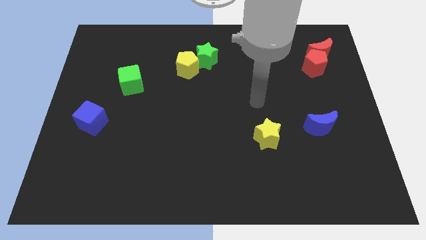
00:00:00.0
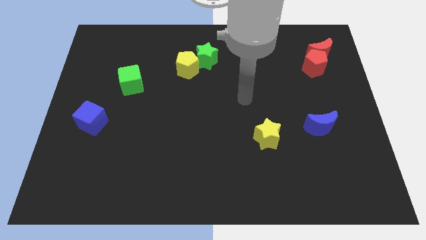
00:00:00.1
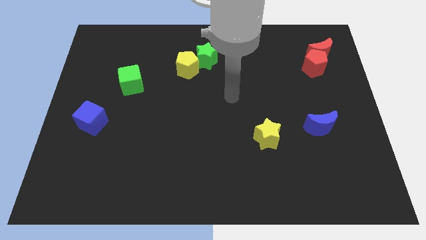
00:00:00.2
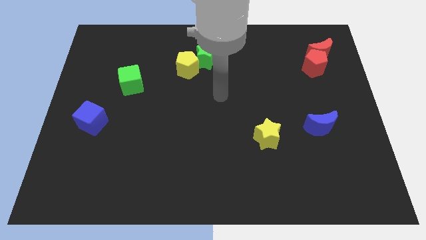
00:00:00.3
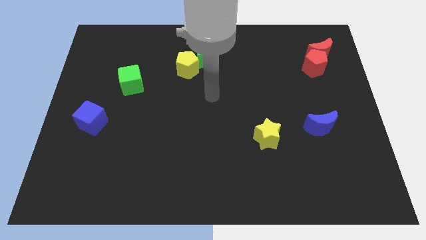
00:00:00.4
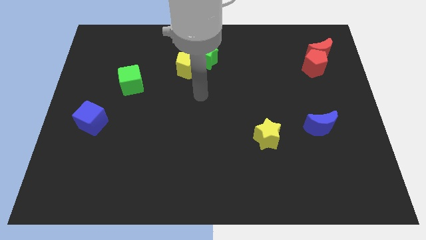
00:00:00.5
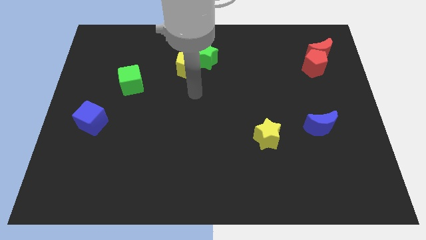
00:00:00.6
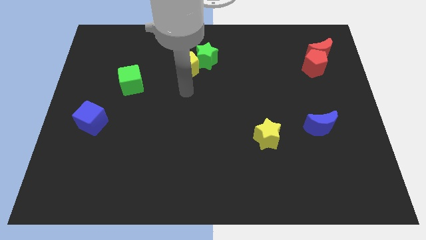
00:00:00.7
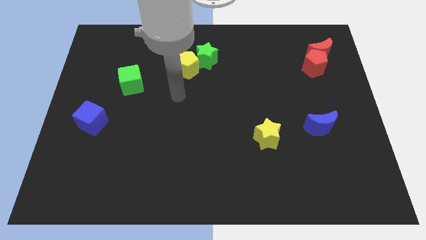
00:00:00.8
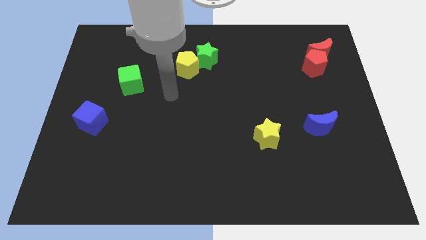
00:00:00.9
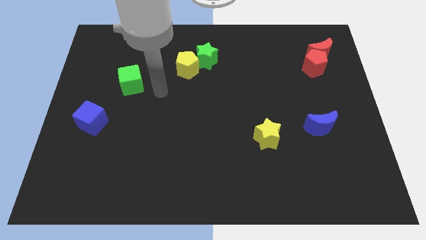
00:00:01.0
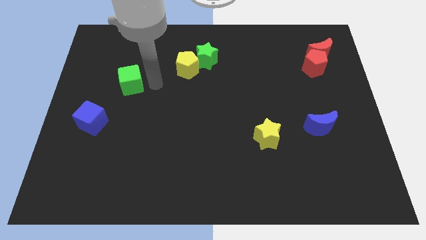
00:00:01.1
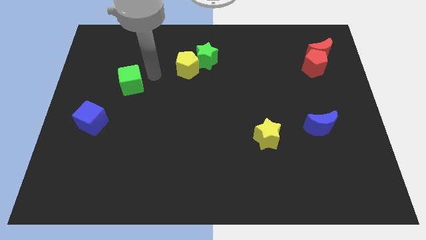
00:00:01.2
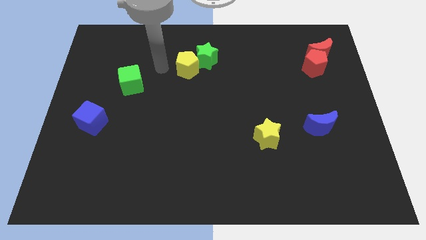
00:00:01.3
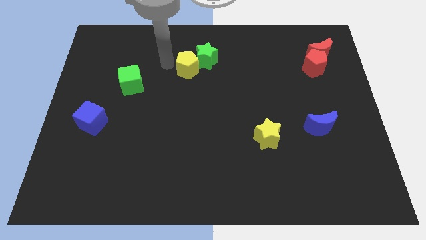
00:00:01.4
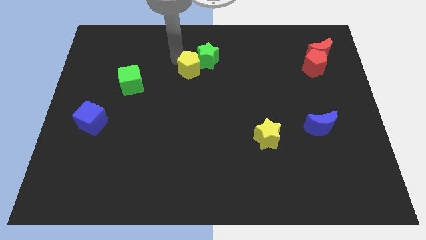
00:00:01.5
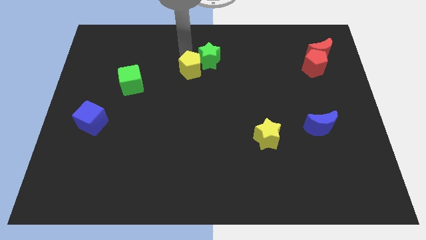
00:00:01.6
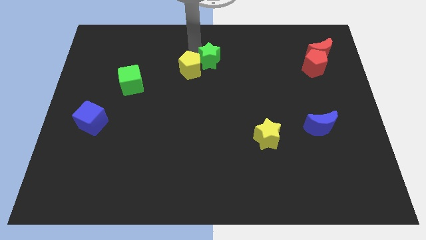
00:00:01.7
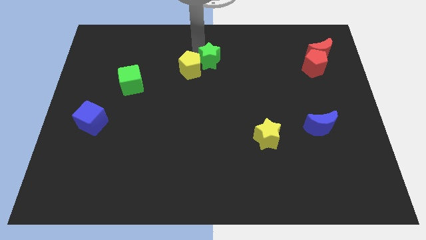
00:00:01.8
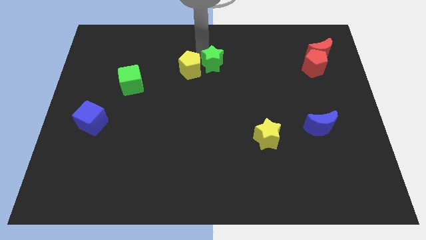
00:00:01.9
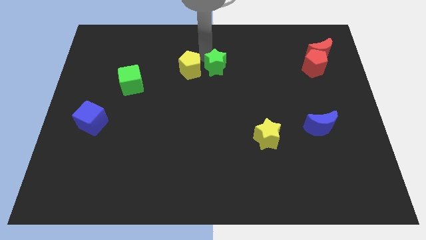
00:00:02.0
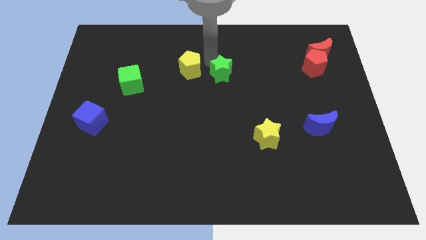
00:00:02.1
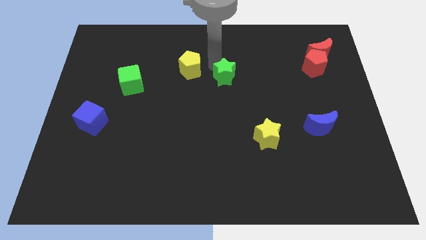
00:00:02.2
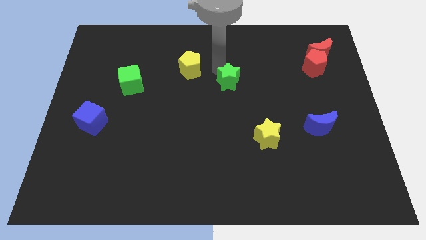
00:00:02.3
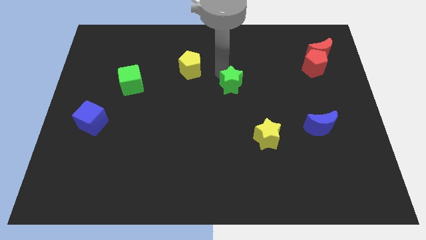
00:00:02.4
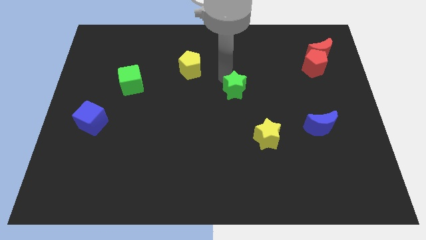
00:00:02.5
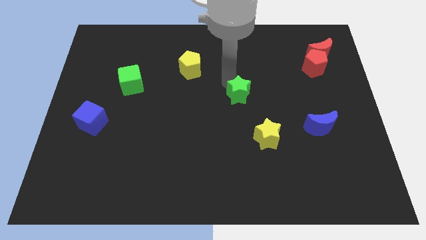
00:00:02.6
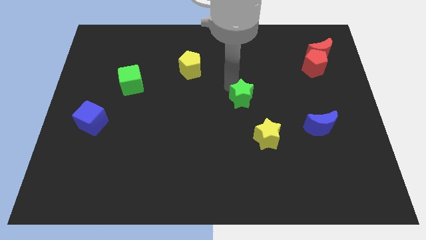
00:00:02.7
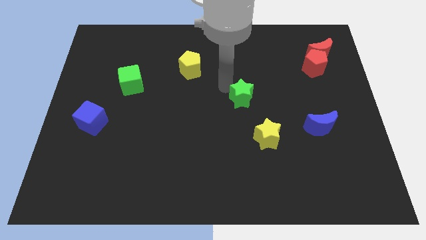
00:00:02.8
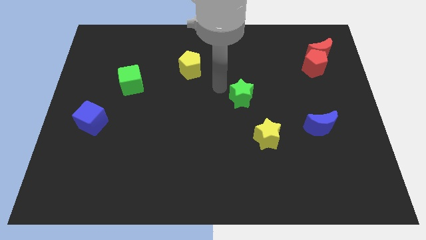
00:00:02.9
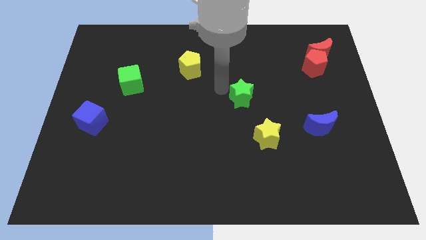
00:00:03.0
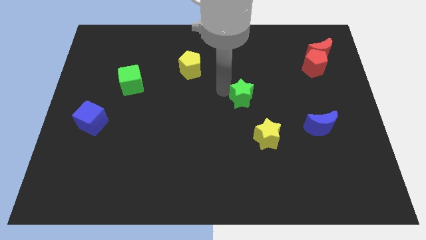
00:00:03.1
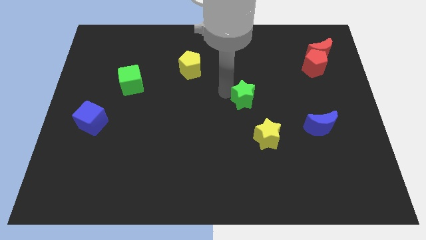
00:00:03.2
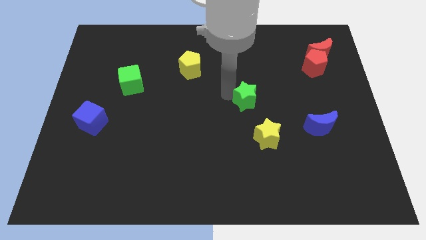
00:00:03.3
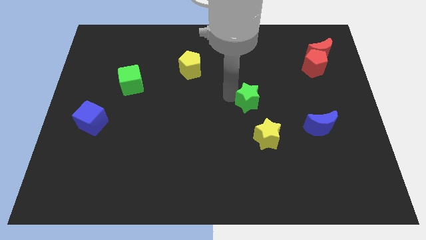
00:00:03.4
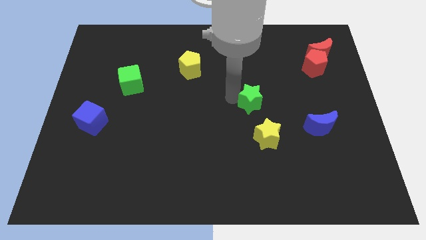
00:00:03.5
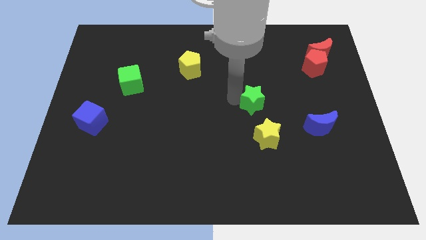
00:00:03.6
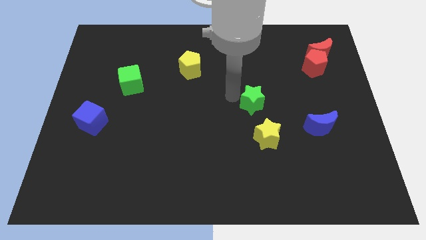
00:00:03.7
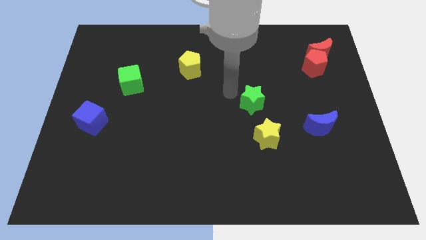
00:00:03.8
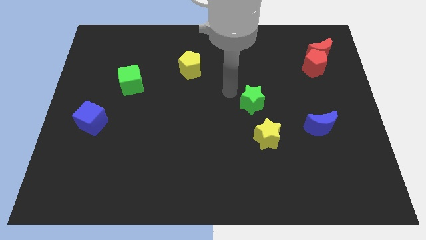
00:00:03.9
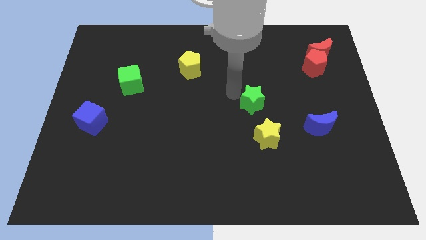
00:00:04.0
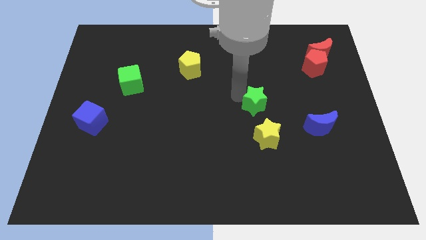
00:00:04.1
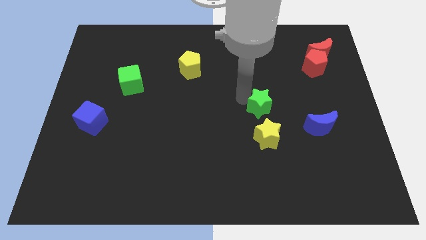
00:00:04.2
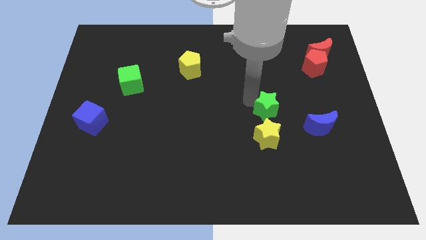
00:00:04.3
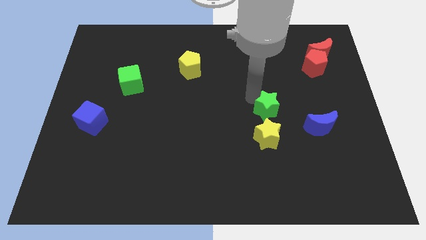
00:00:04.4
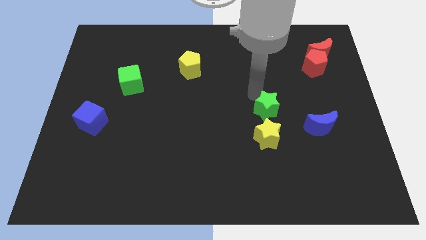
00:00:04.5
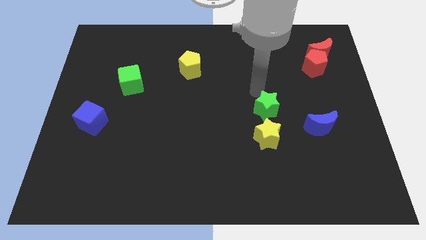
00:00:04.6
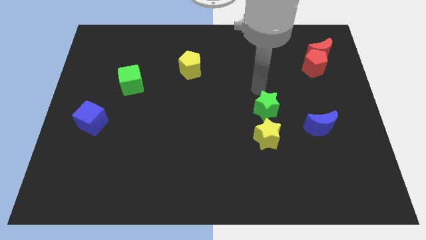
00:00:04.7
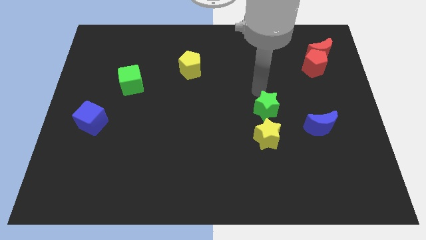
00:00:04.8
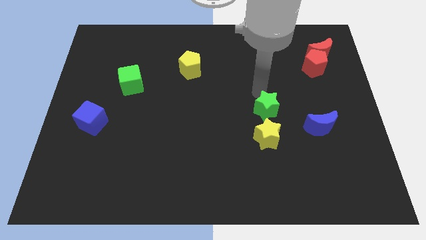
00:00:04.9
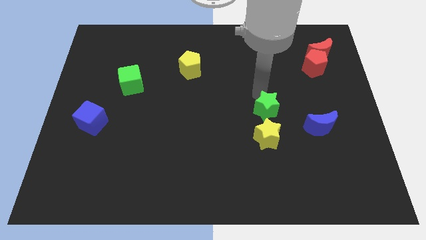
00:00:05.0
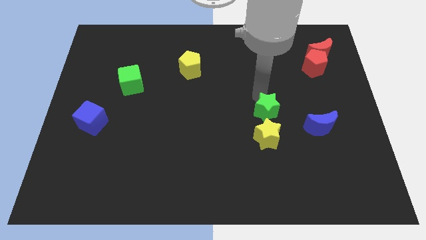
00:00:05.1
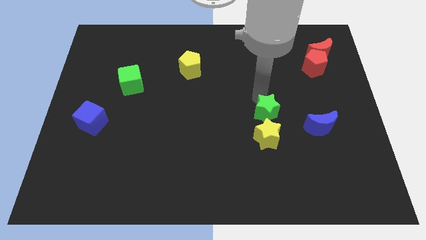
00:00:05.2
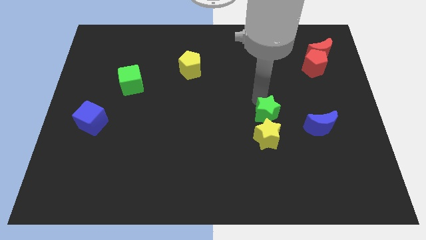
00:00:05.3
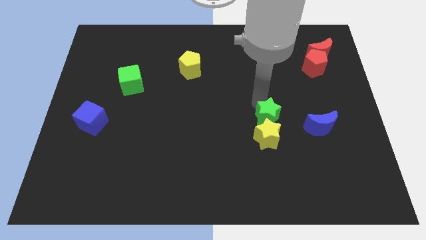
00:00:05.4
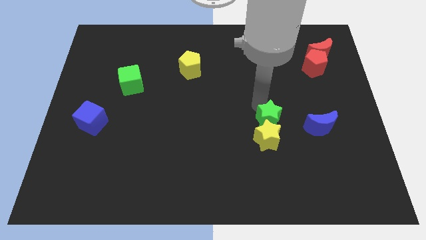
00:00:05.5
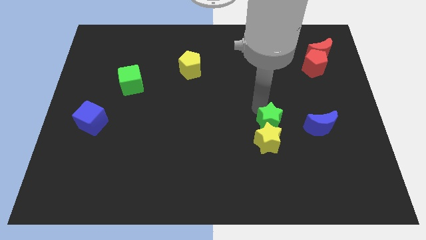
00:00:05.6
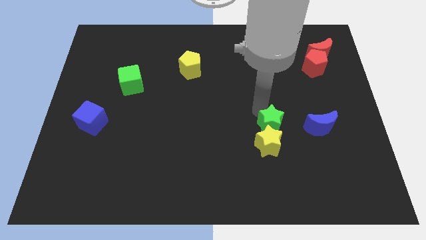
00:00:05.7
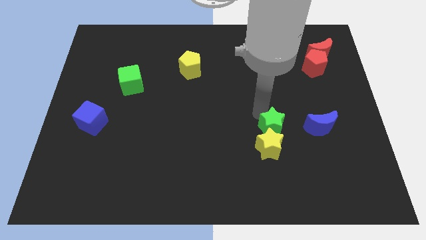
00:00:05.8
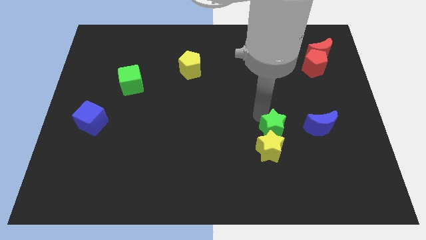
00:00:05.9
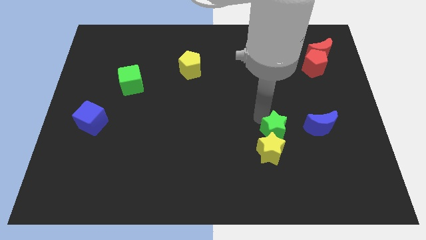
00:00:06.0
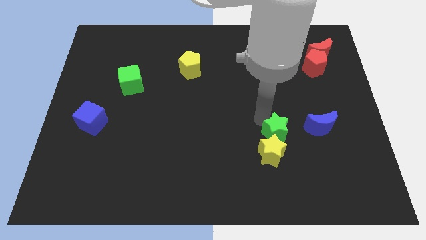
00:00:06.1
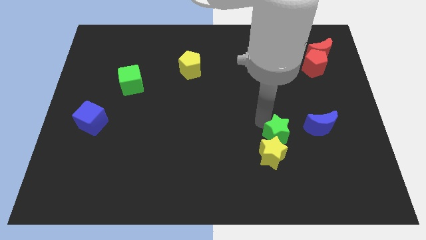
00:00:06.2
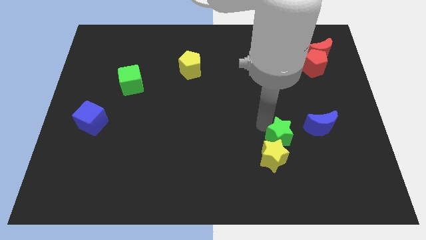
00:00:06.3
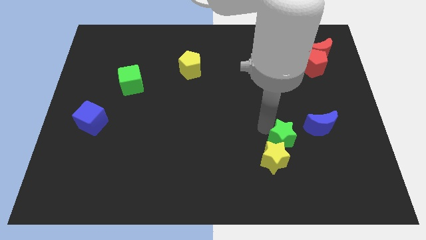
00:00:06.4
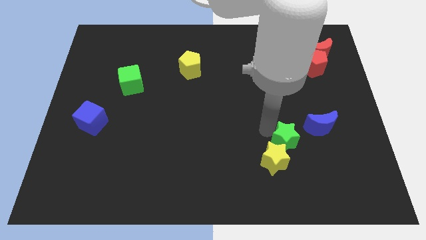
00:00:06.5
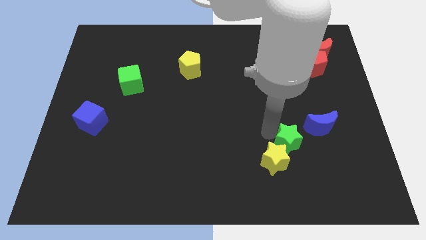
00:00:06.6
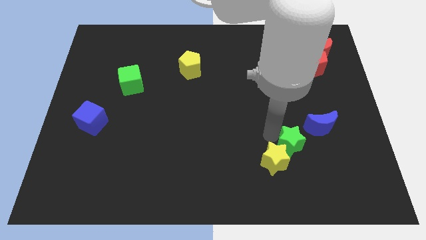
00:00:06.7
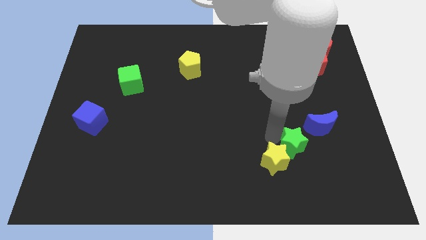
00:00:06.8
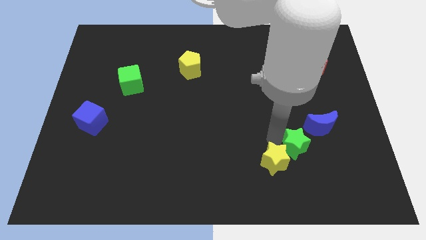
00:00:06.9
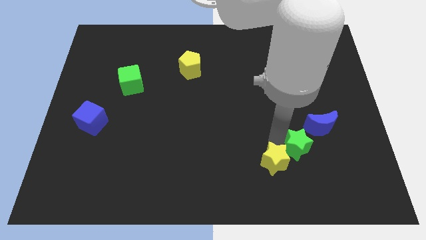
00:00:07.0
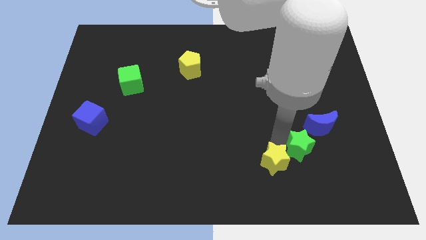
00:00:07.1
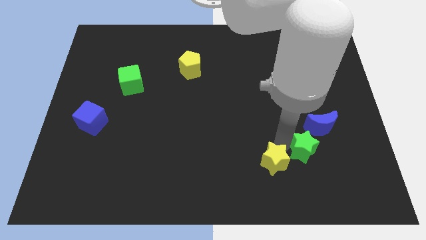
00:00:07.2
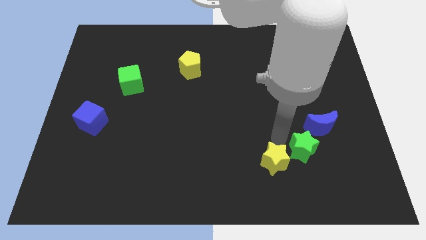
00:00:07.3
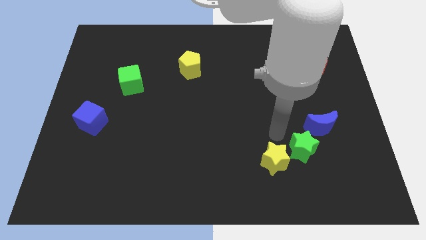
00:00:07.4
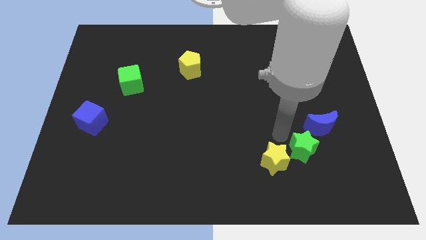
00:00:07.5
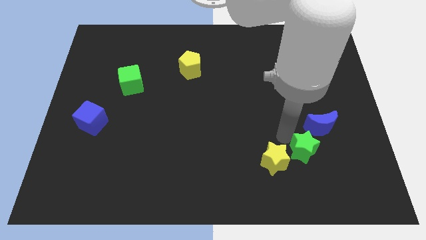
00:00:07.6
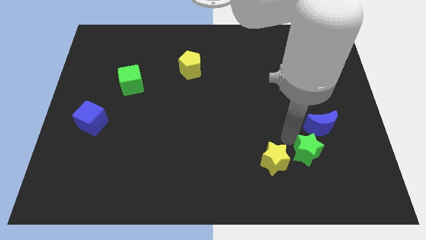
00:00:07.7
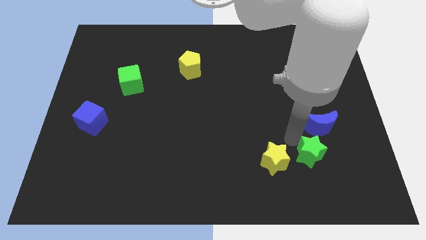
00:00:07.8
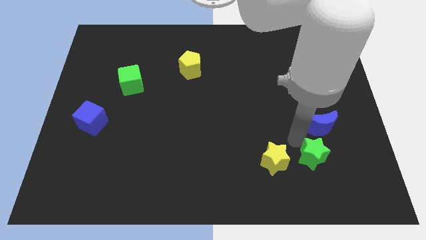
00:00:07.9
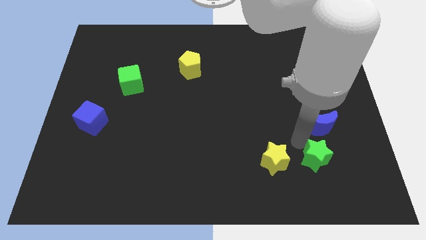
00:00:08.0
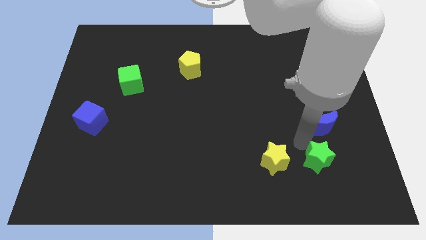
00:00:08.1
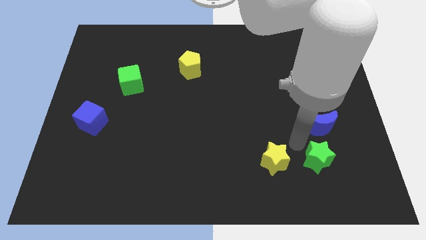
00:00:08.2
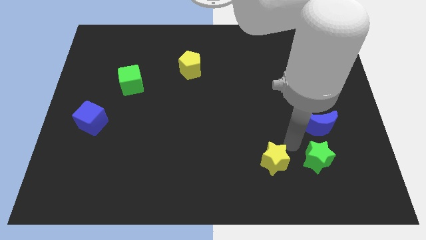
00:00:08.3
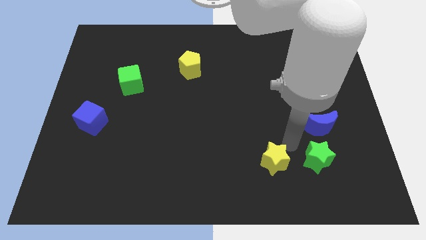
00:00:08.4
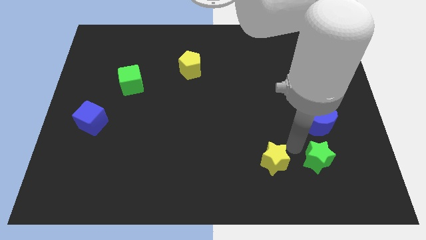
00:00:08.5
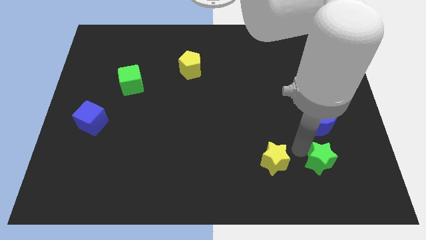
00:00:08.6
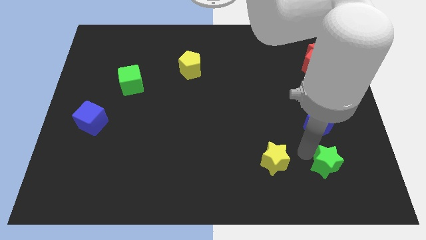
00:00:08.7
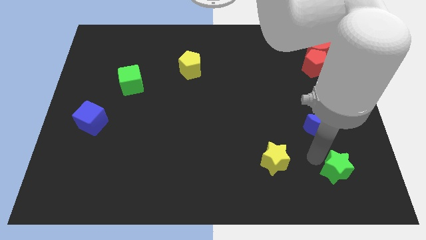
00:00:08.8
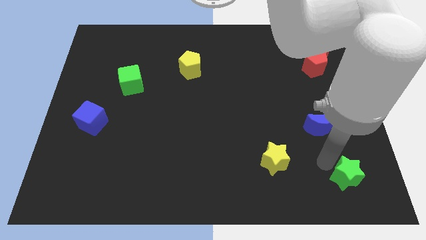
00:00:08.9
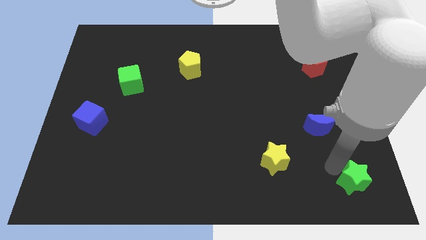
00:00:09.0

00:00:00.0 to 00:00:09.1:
push the green star to the bottom right corner
